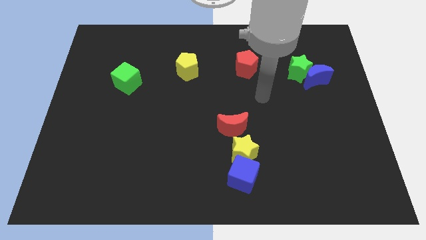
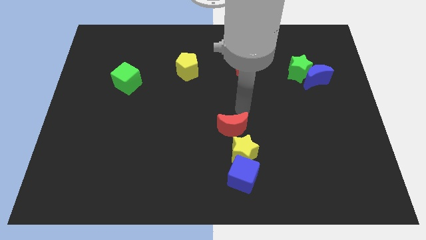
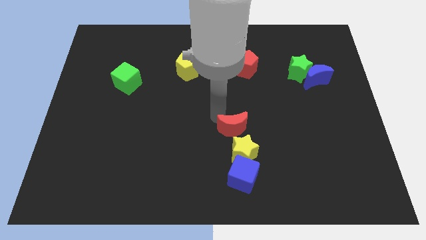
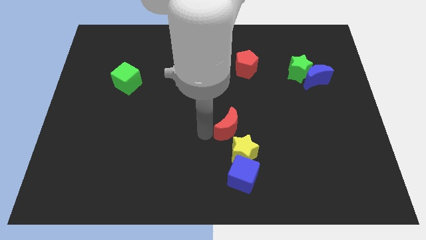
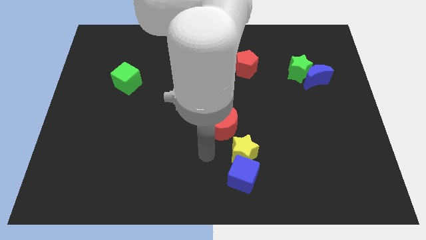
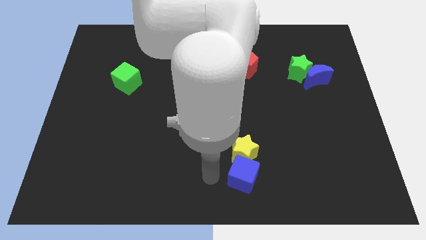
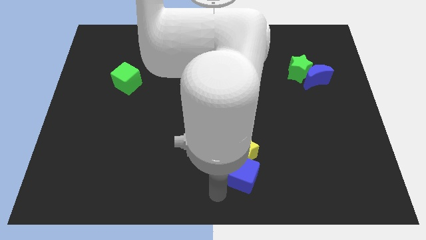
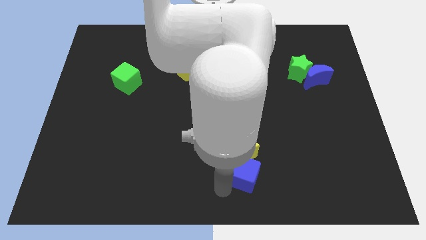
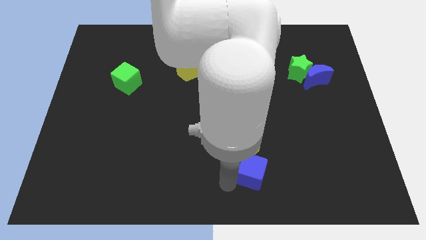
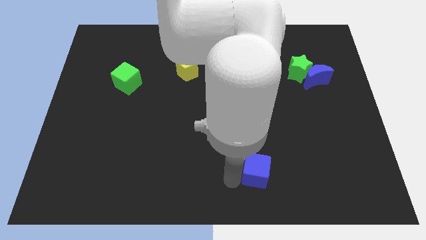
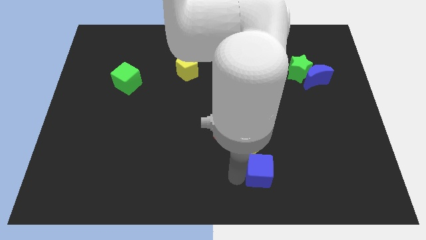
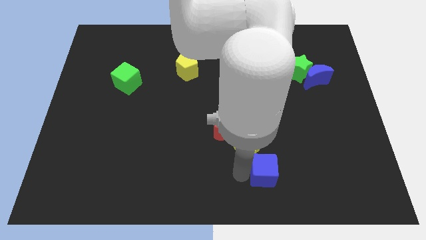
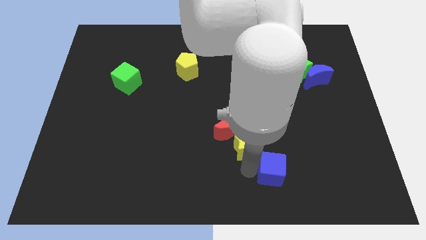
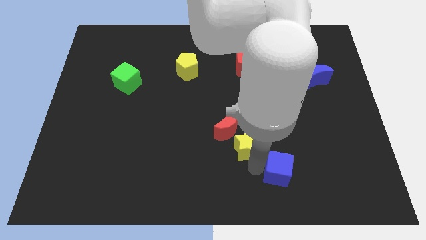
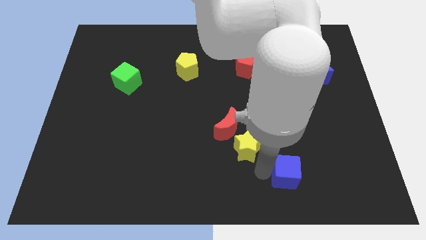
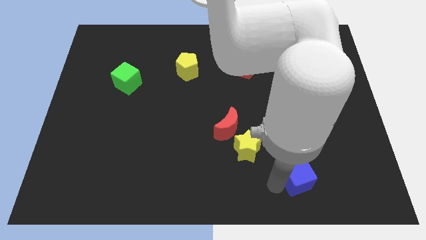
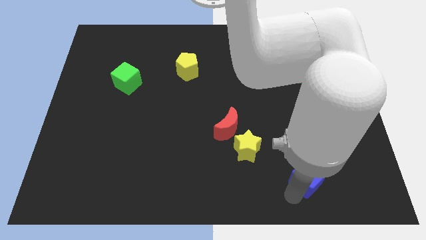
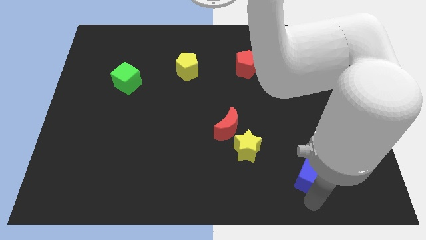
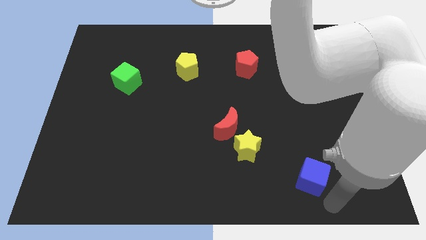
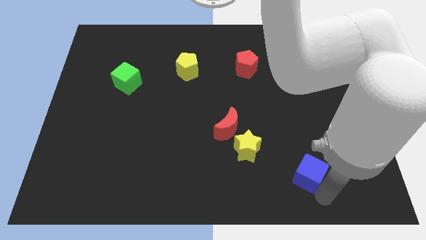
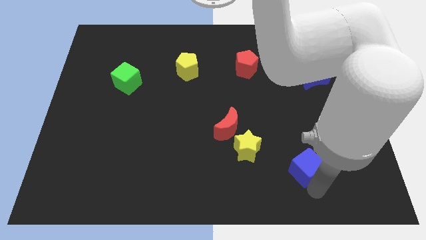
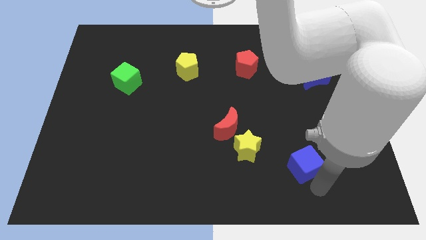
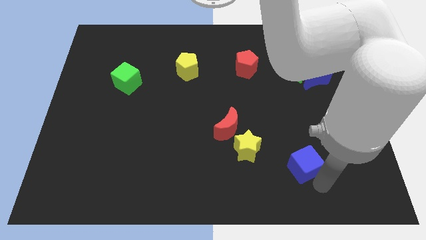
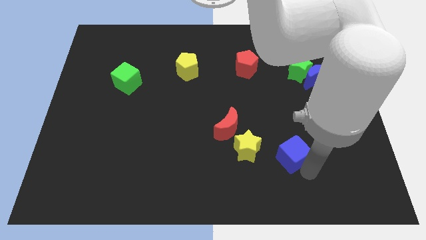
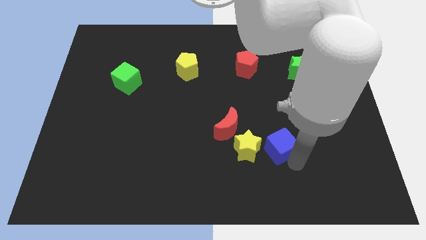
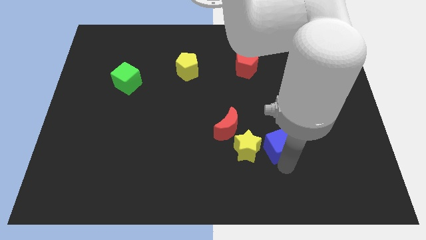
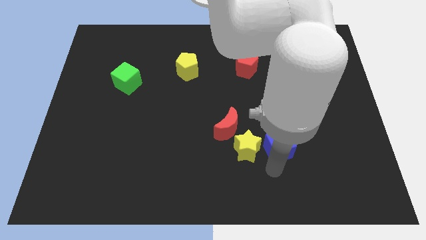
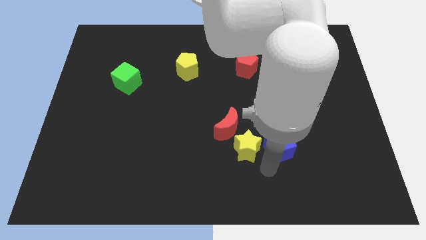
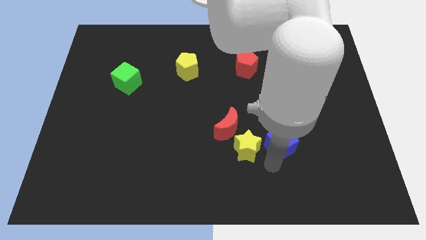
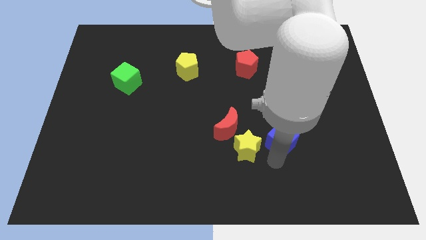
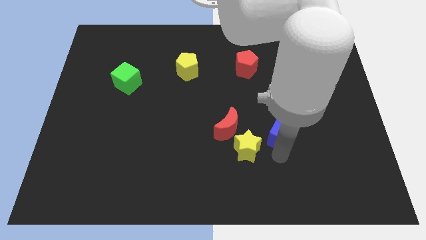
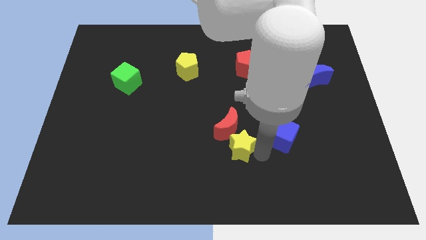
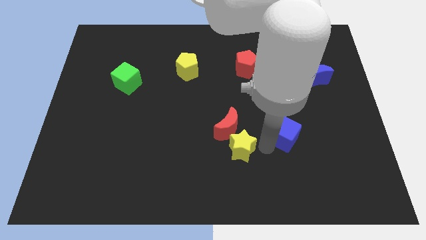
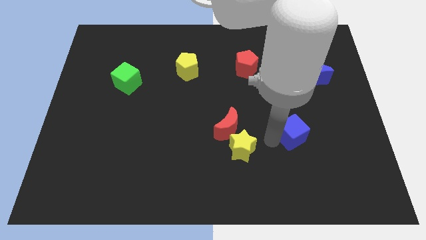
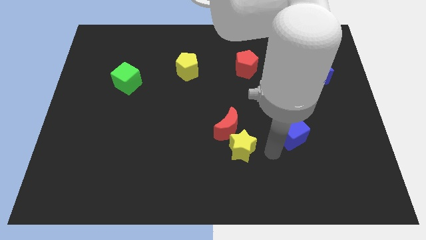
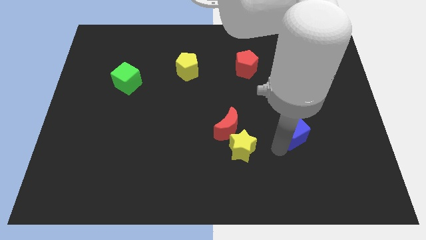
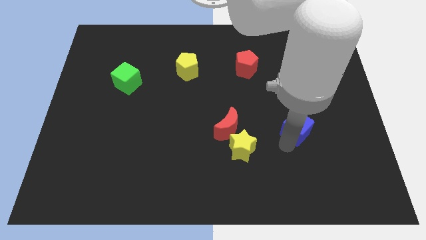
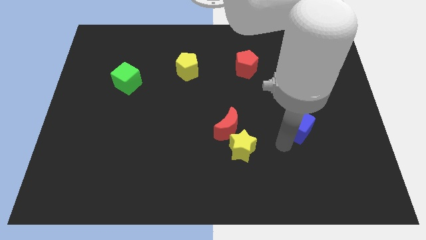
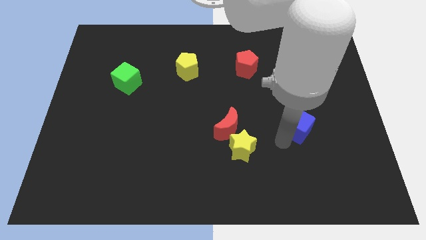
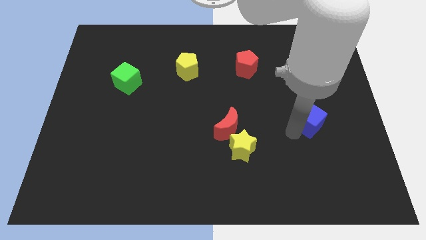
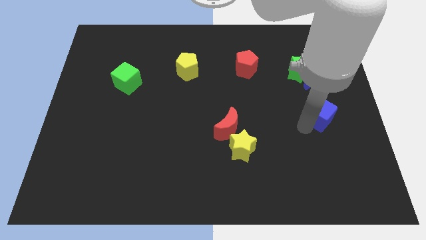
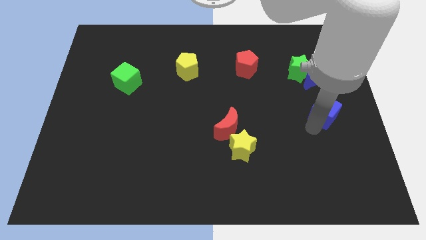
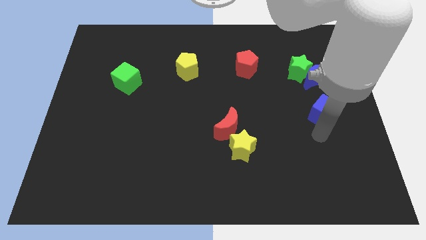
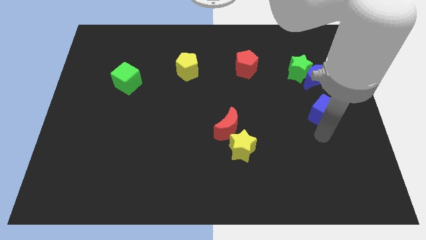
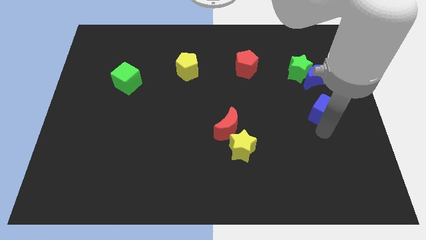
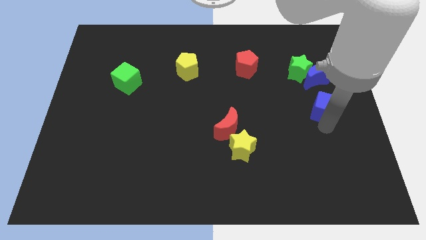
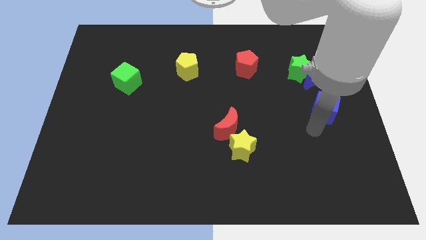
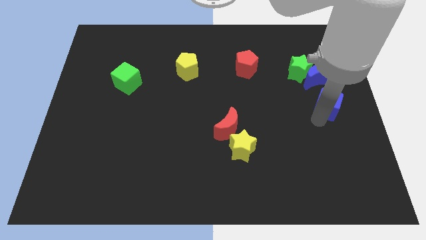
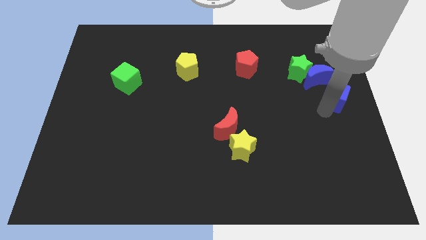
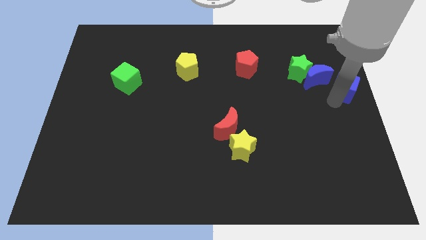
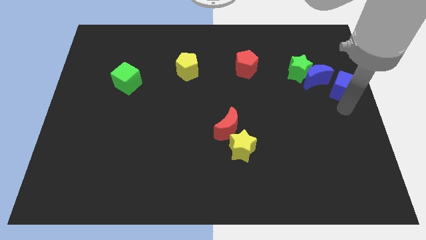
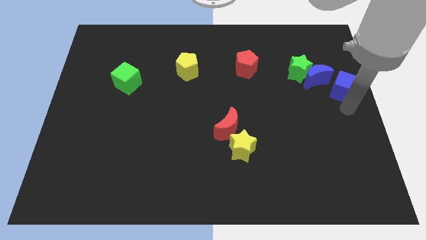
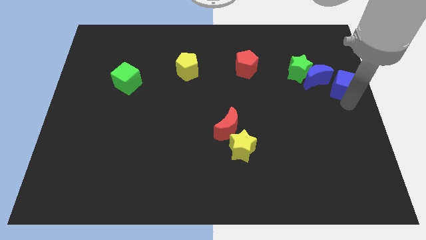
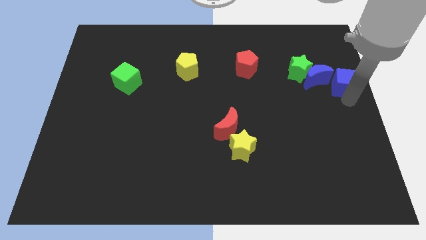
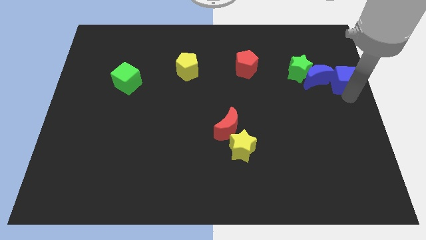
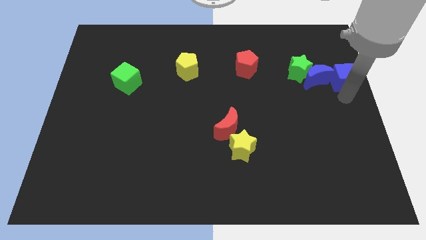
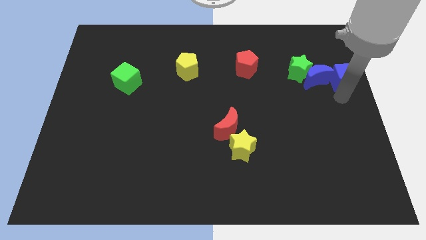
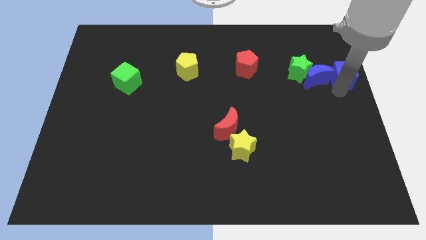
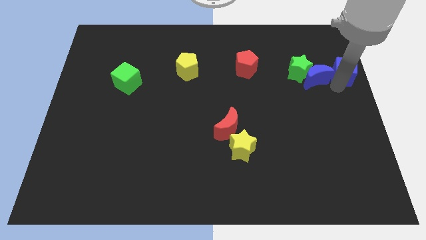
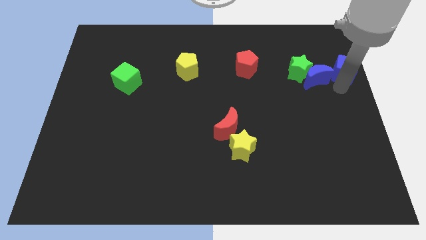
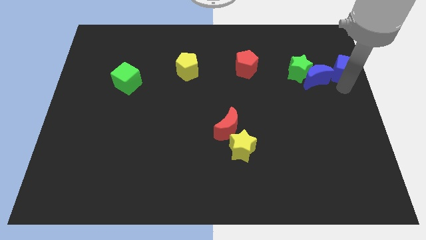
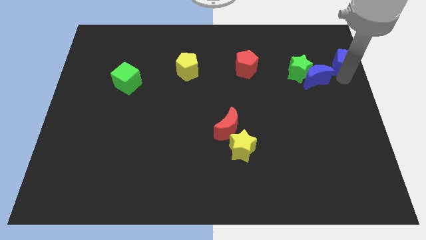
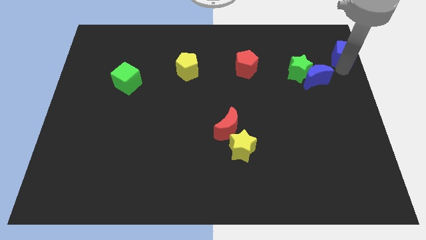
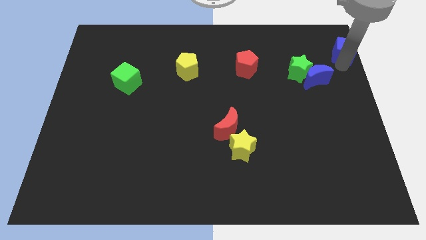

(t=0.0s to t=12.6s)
move the blue cube to the upper right corner
